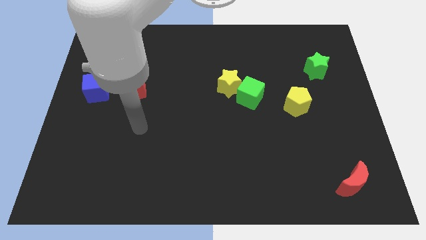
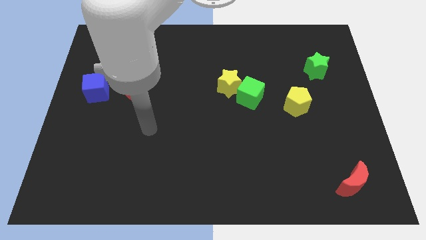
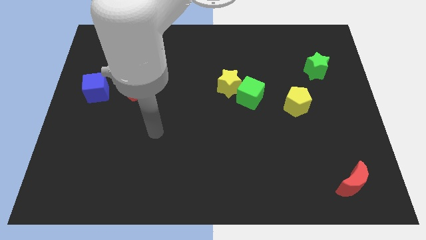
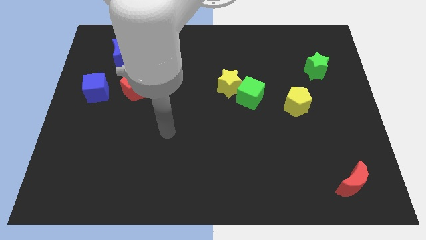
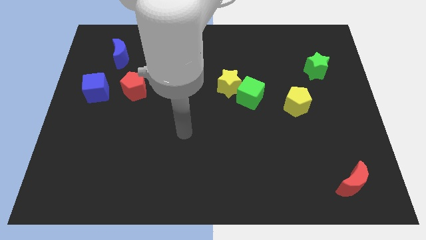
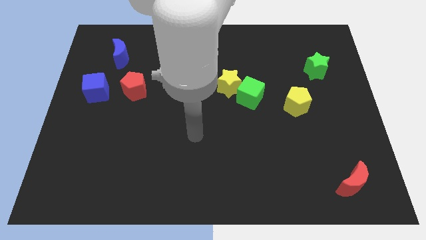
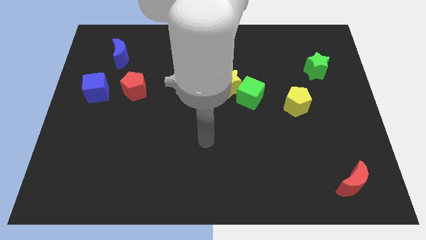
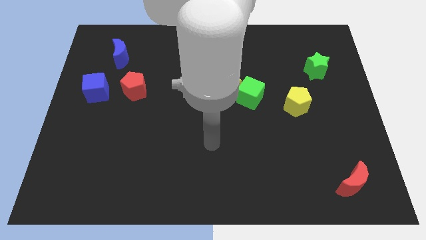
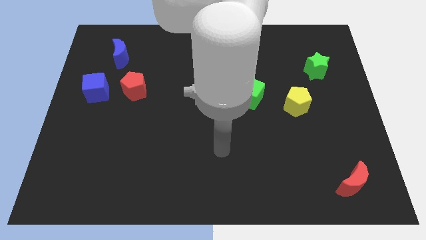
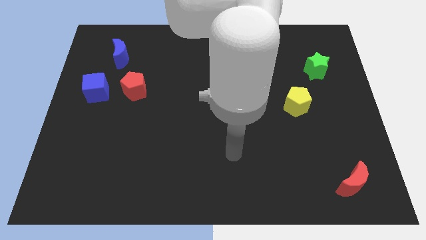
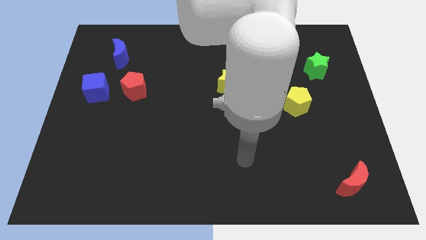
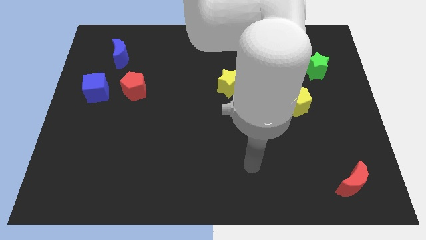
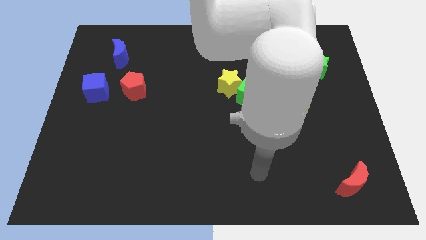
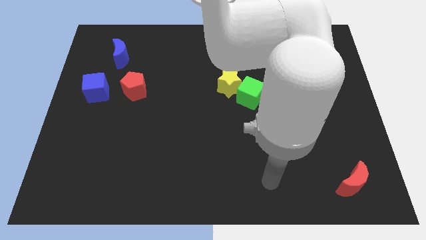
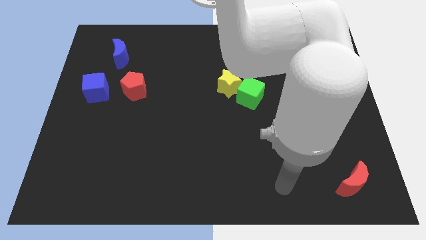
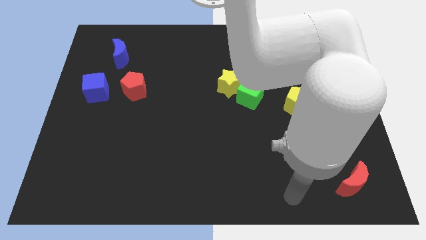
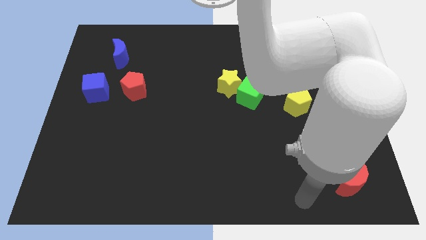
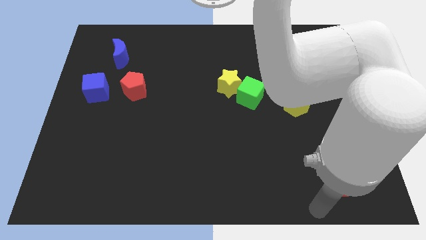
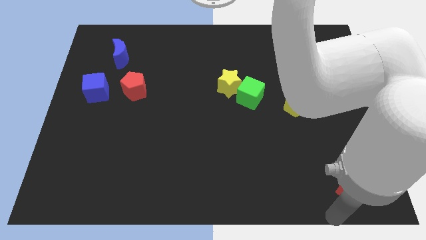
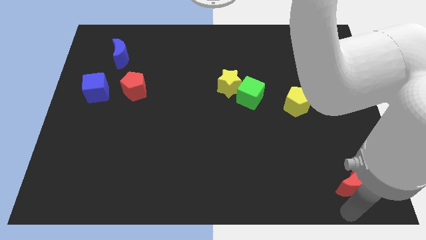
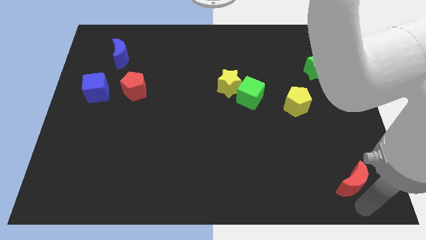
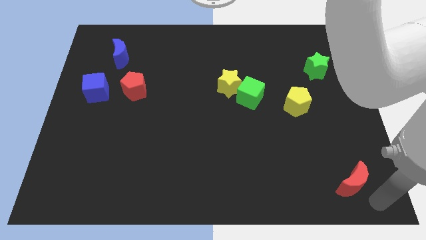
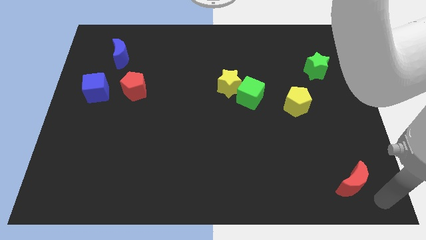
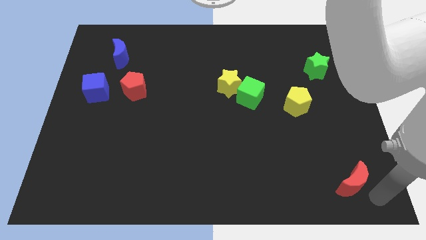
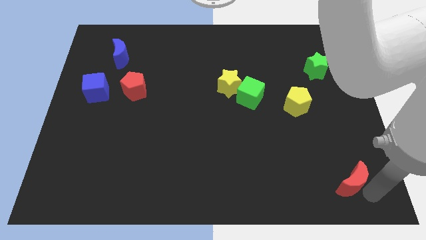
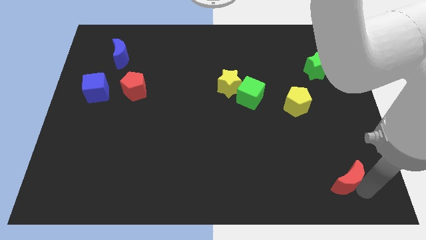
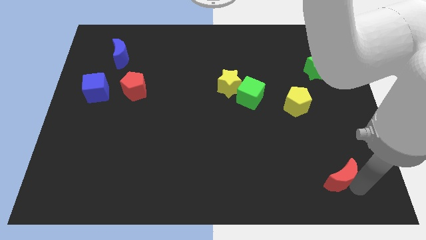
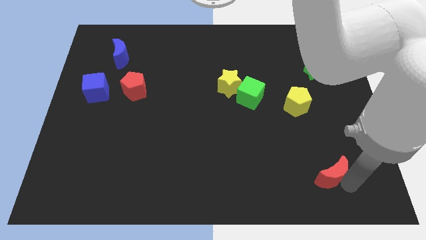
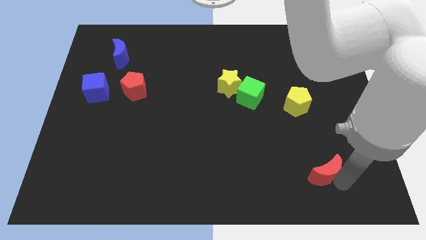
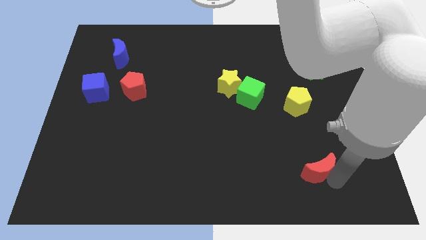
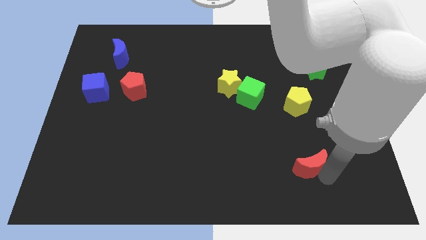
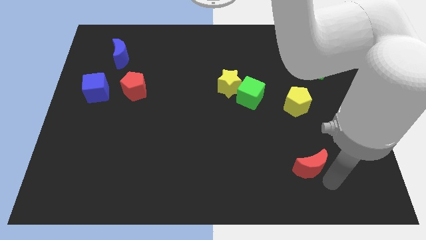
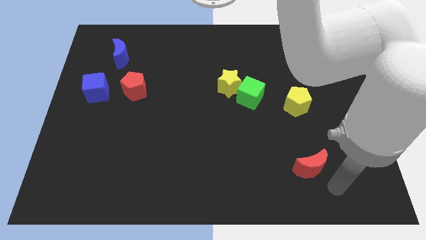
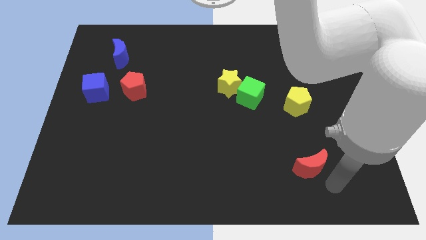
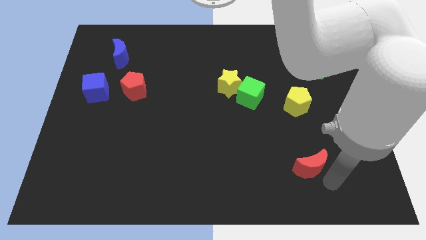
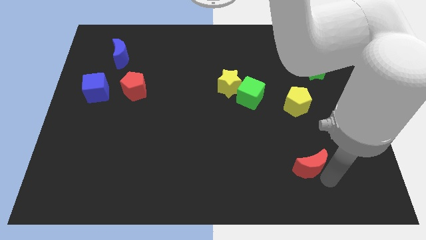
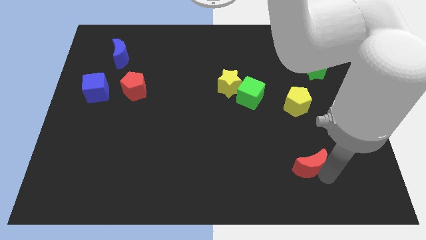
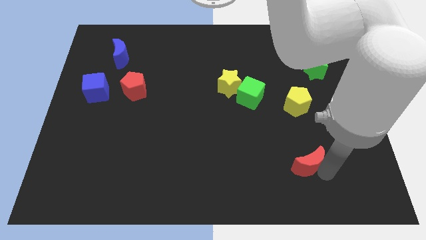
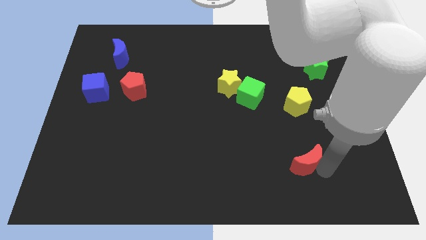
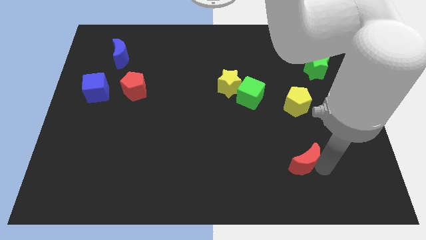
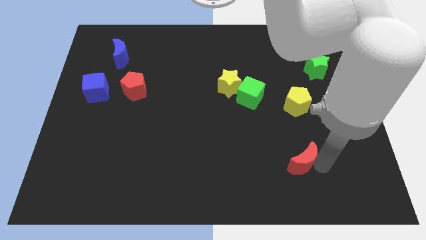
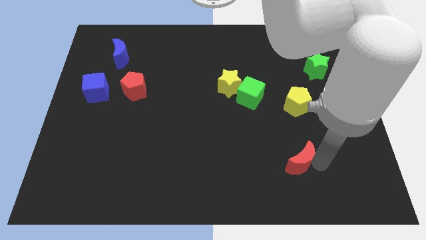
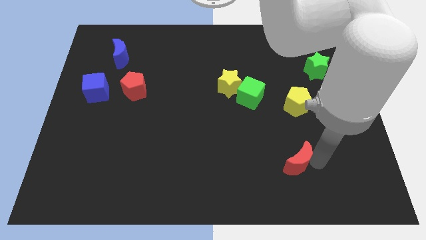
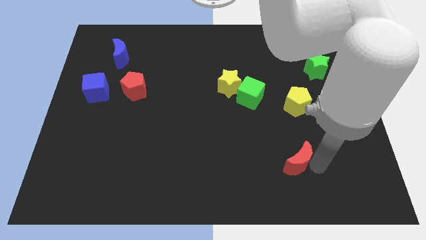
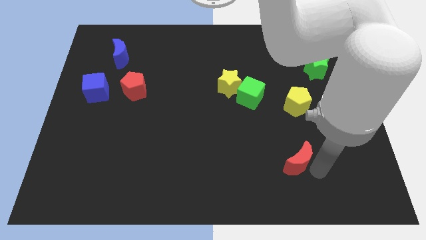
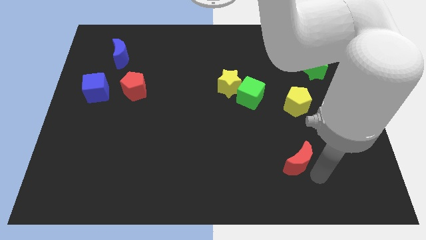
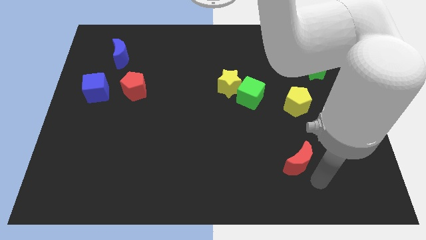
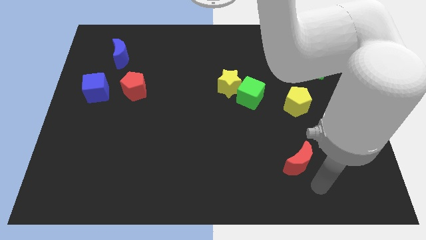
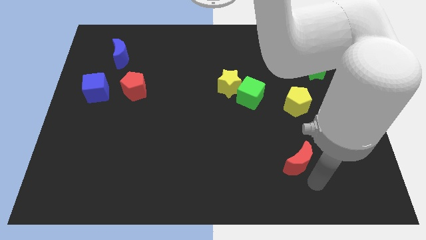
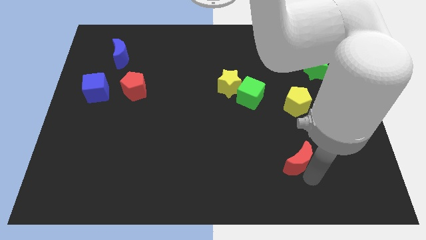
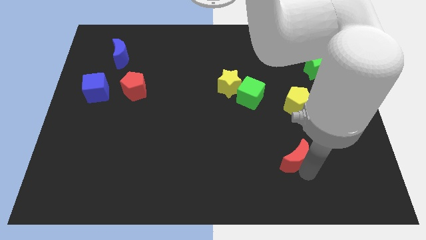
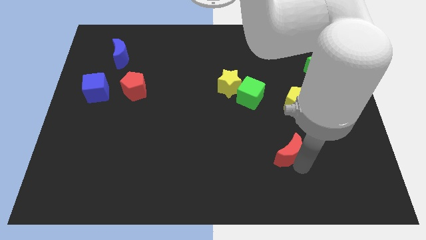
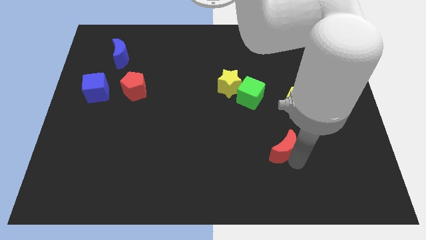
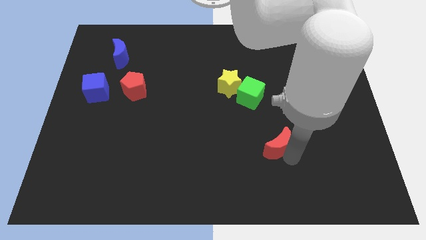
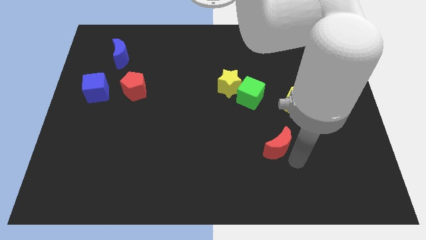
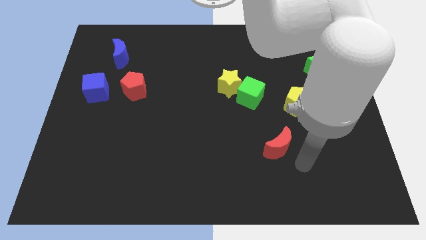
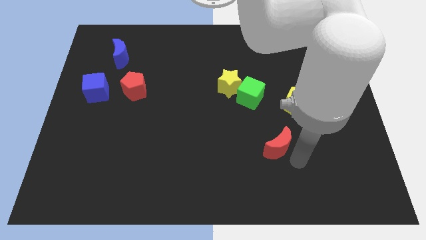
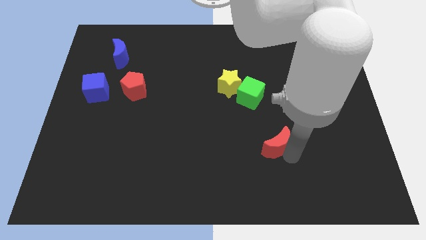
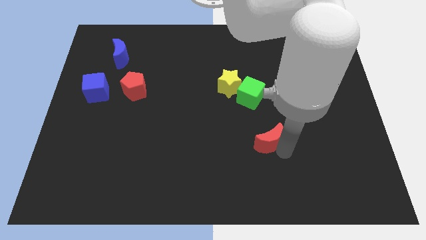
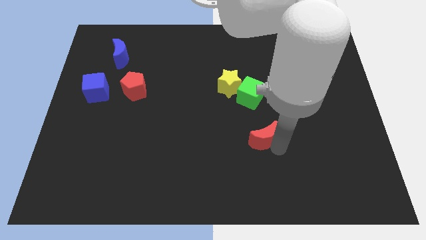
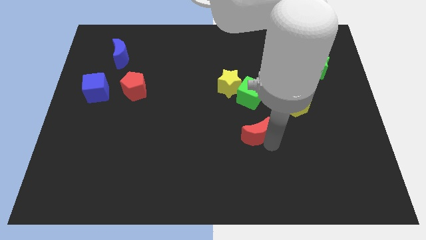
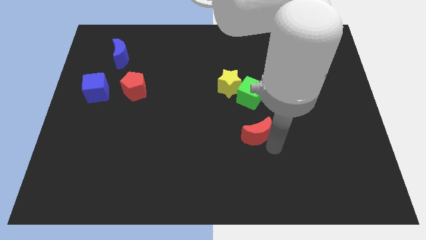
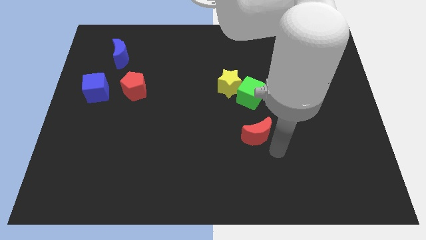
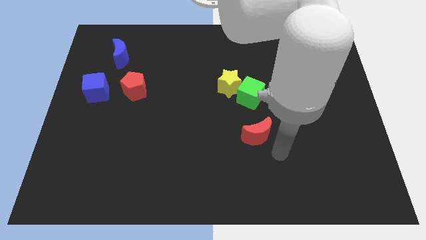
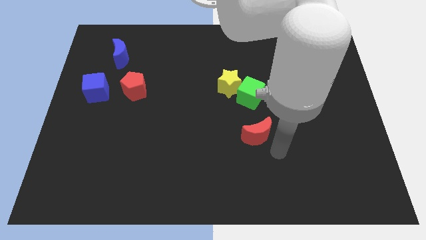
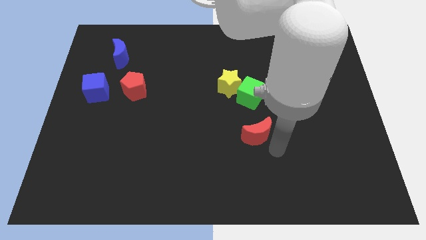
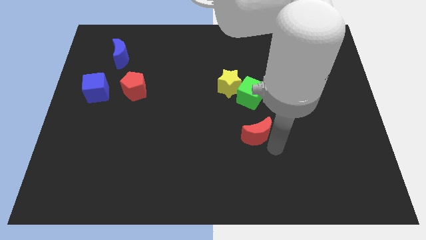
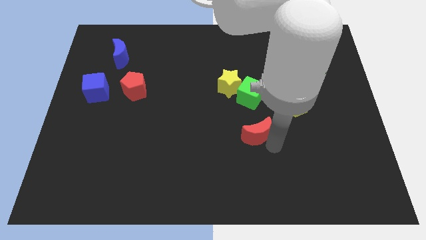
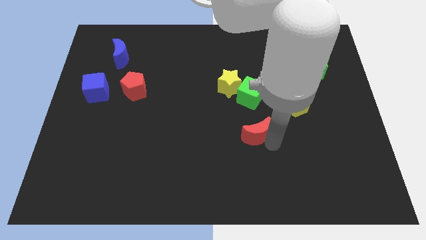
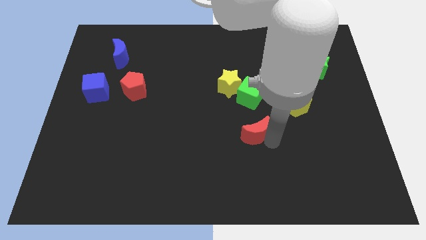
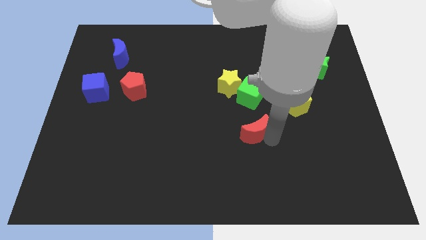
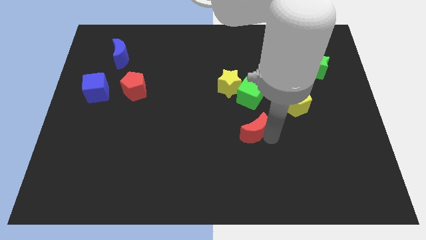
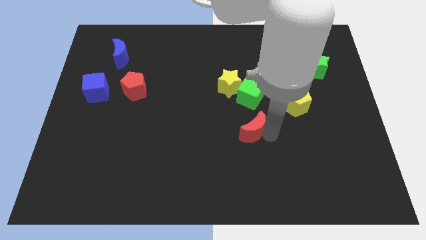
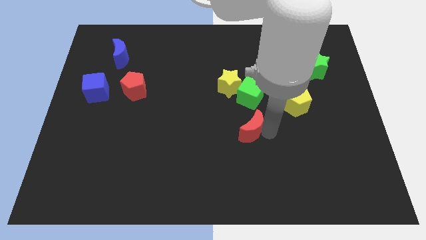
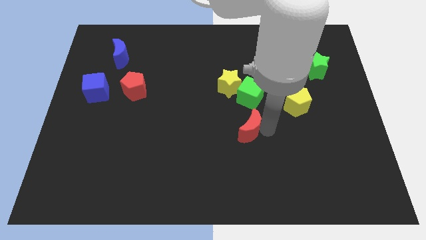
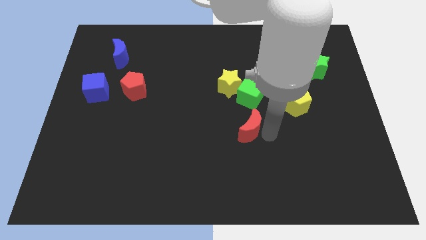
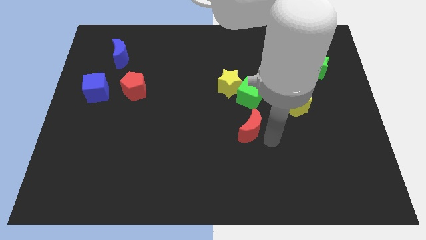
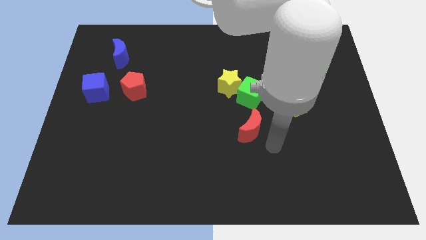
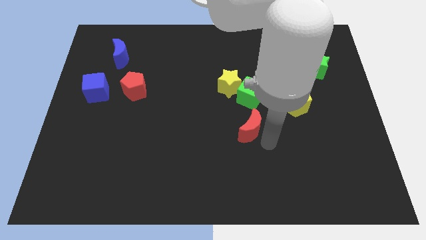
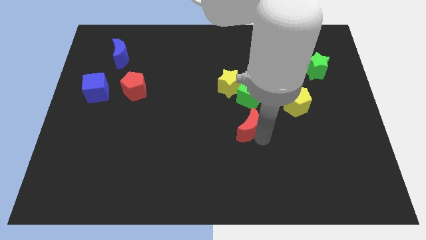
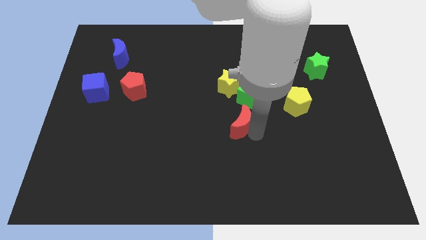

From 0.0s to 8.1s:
move the red moon diagonally down and to the left of the green cube
